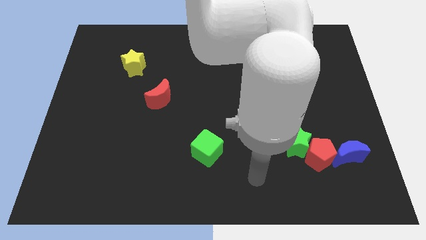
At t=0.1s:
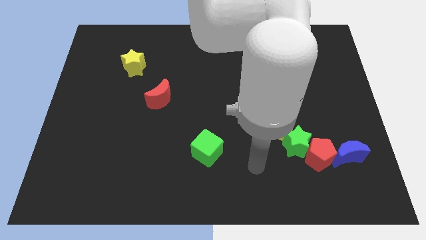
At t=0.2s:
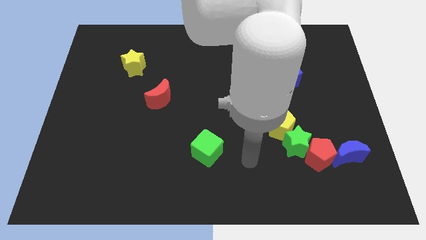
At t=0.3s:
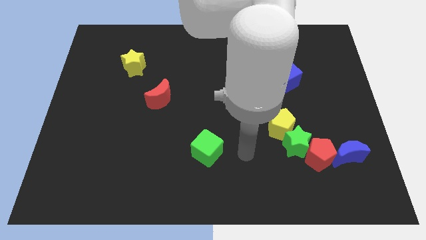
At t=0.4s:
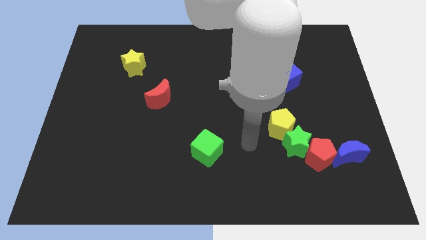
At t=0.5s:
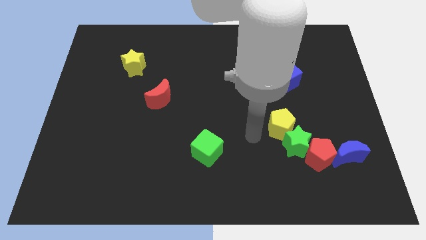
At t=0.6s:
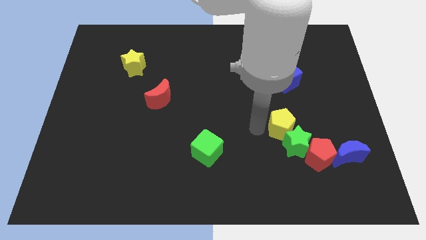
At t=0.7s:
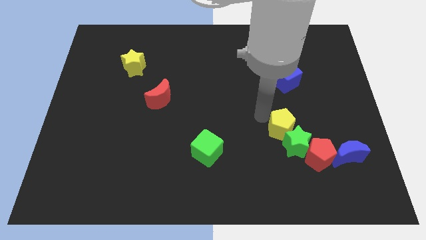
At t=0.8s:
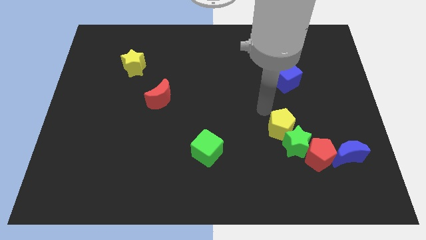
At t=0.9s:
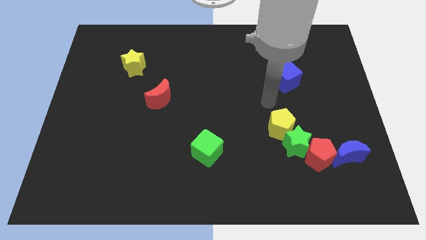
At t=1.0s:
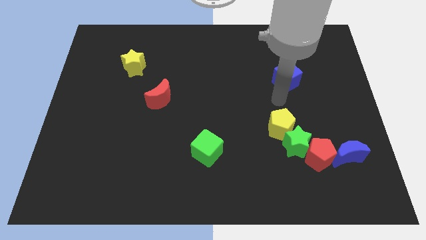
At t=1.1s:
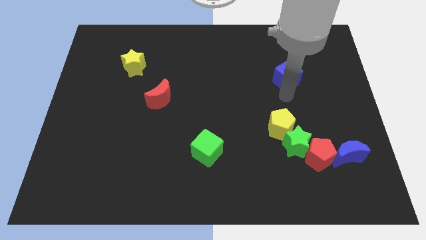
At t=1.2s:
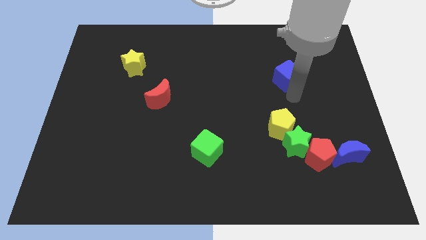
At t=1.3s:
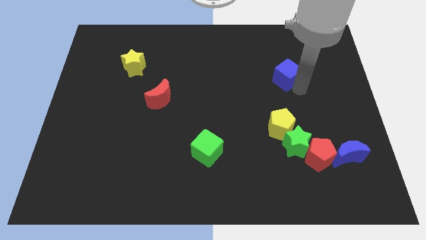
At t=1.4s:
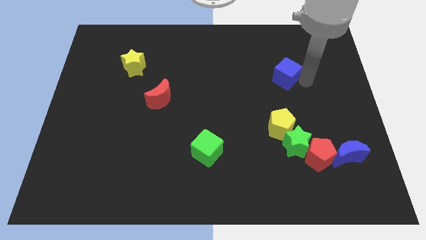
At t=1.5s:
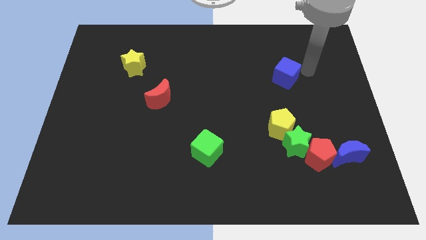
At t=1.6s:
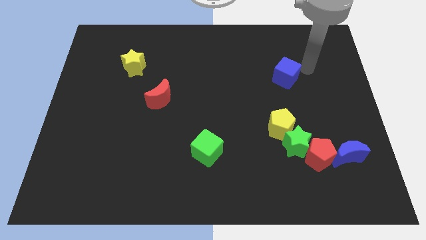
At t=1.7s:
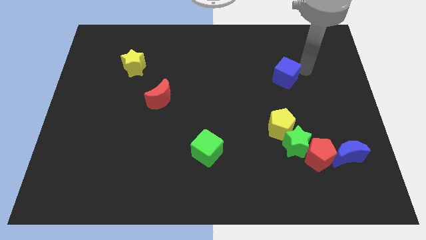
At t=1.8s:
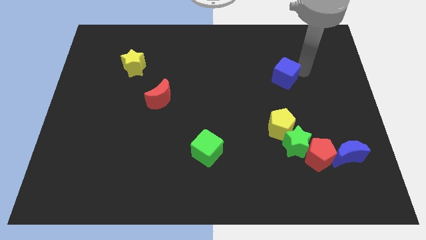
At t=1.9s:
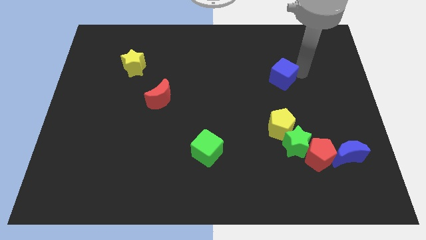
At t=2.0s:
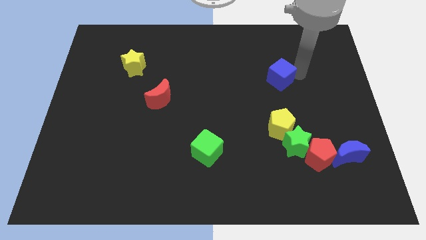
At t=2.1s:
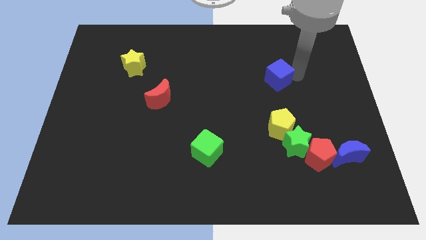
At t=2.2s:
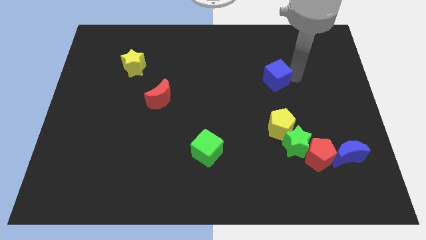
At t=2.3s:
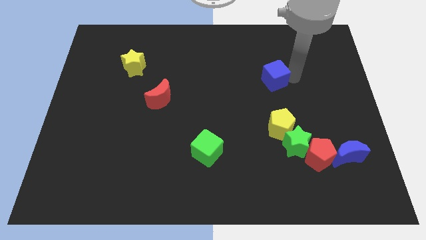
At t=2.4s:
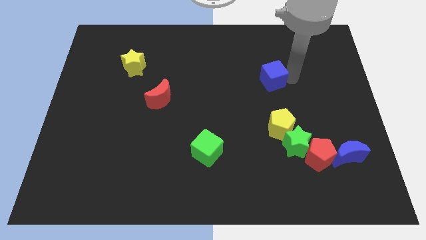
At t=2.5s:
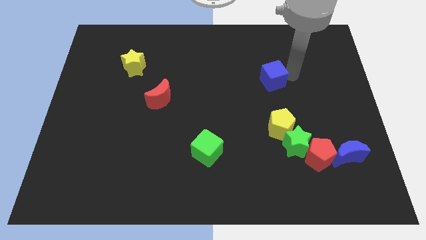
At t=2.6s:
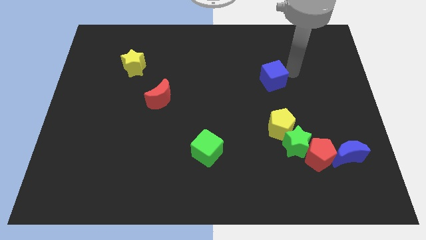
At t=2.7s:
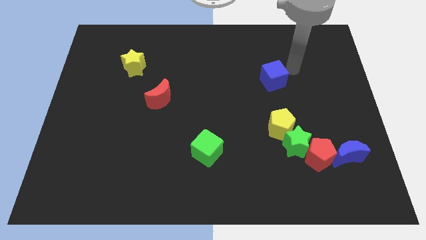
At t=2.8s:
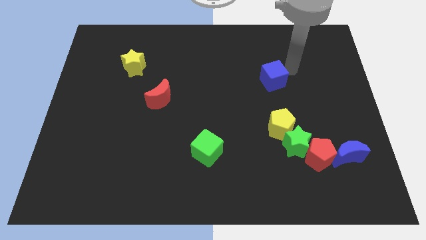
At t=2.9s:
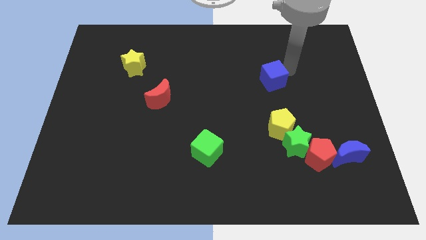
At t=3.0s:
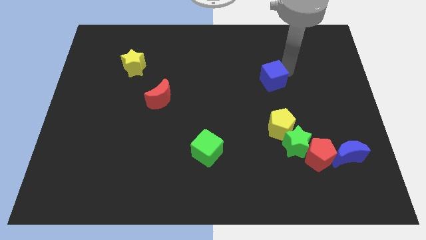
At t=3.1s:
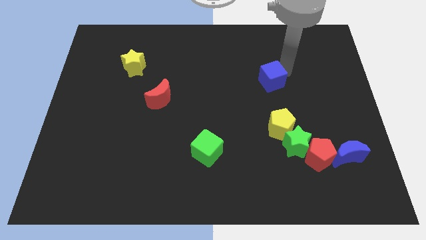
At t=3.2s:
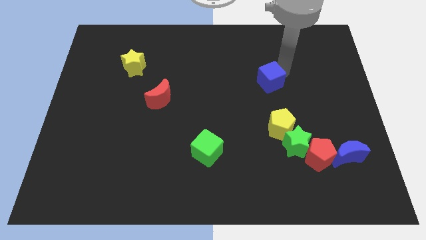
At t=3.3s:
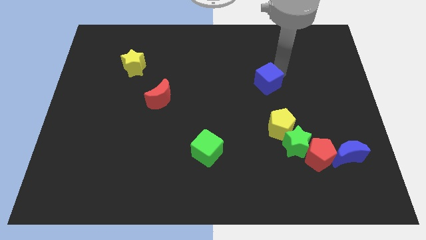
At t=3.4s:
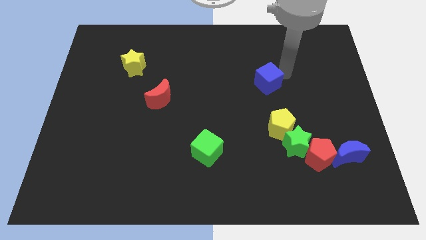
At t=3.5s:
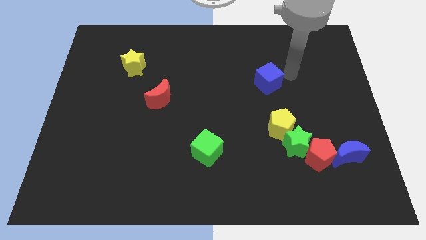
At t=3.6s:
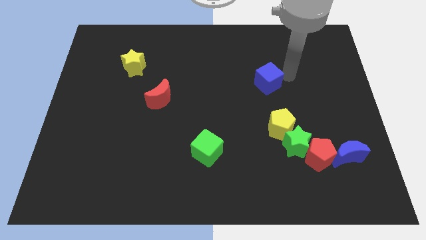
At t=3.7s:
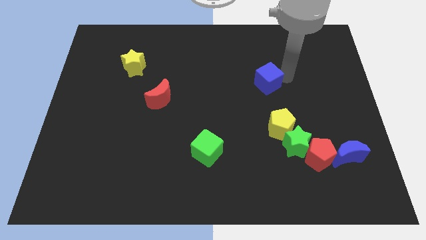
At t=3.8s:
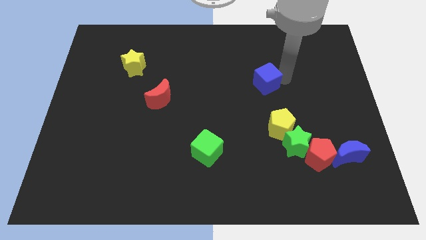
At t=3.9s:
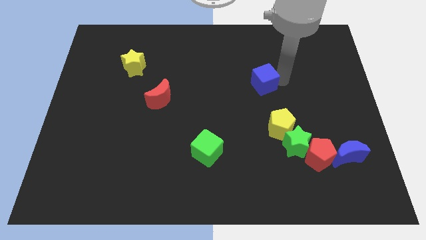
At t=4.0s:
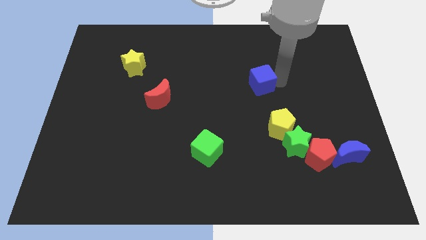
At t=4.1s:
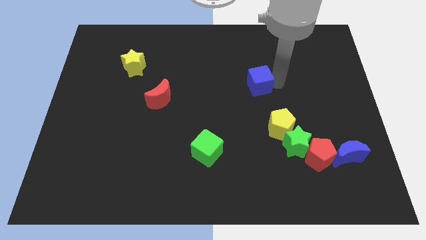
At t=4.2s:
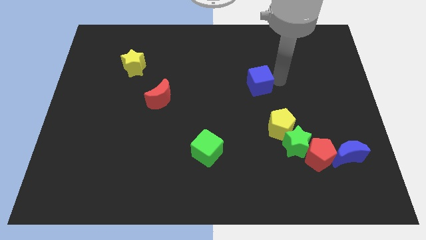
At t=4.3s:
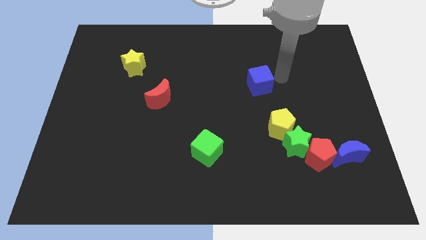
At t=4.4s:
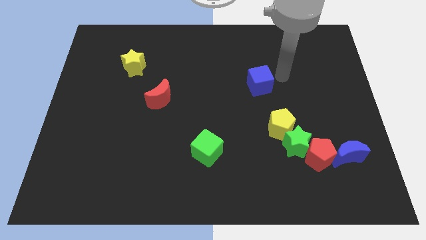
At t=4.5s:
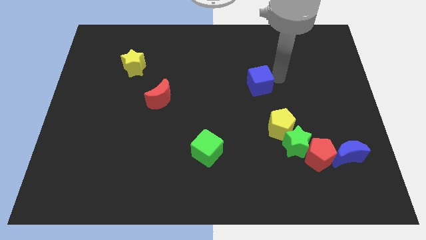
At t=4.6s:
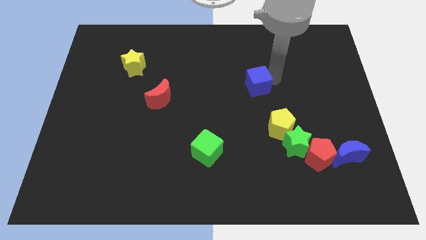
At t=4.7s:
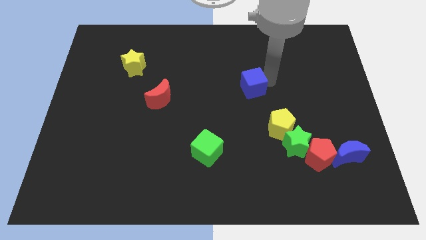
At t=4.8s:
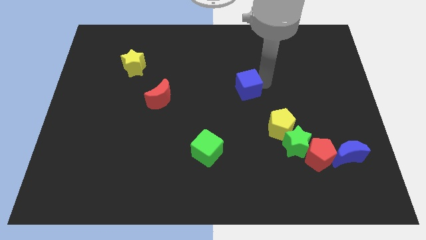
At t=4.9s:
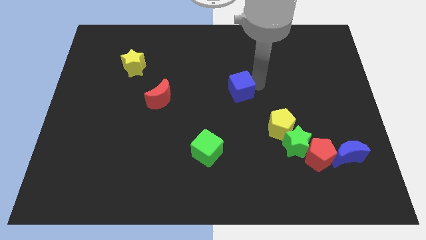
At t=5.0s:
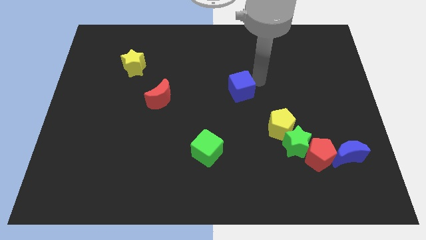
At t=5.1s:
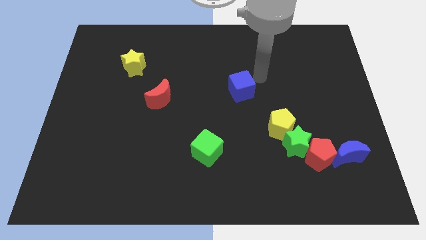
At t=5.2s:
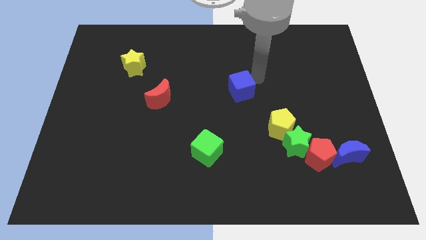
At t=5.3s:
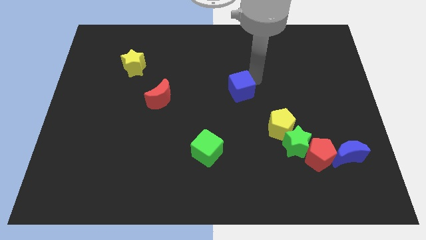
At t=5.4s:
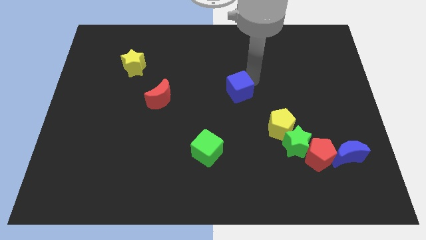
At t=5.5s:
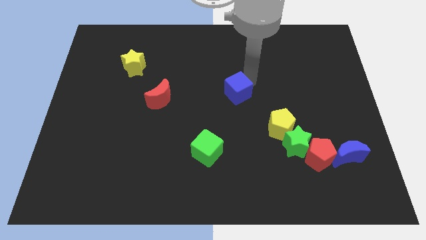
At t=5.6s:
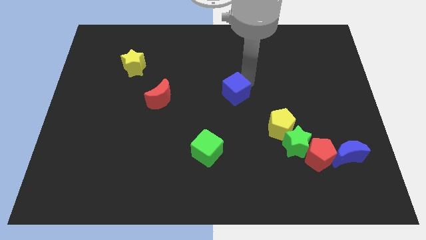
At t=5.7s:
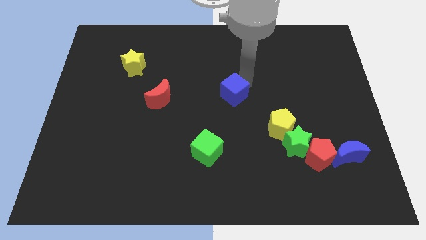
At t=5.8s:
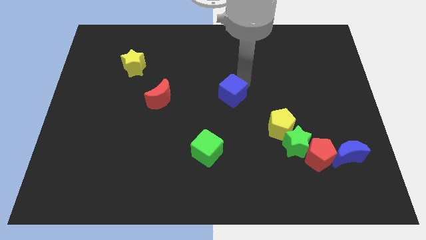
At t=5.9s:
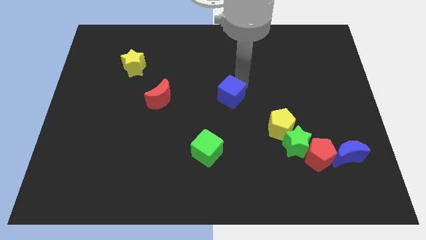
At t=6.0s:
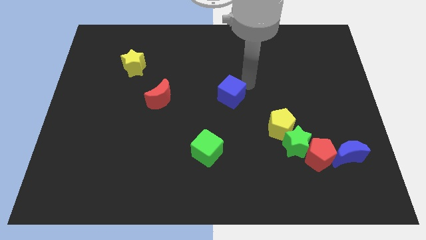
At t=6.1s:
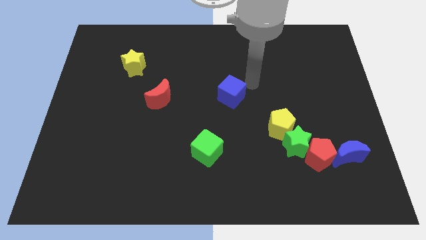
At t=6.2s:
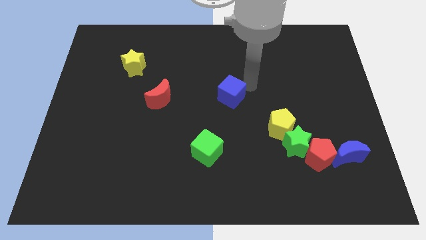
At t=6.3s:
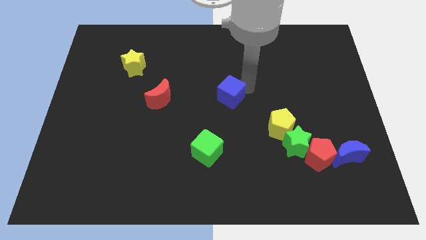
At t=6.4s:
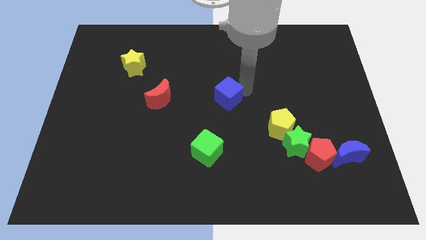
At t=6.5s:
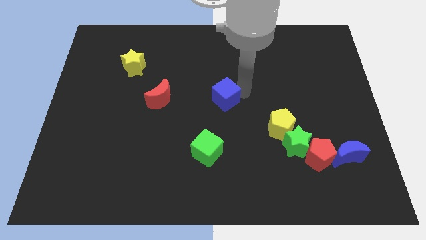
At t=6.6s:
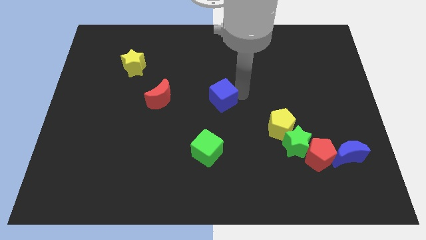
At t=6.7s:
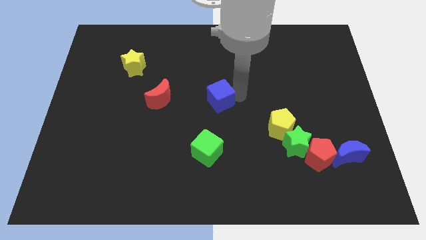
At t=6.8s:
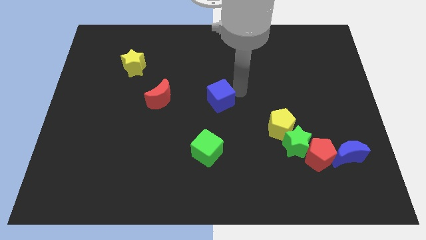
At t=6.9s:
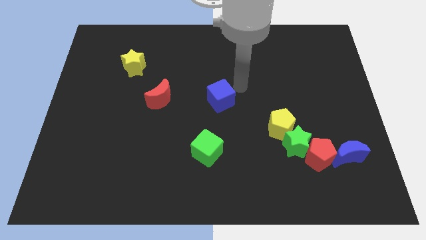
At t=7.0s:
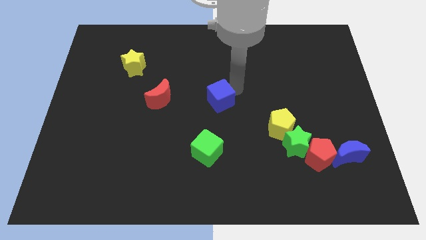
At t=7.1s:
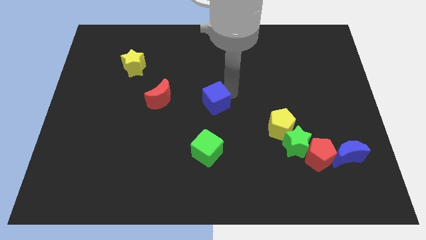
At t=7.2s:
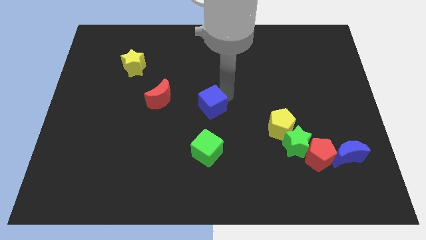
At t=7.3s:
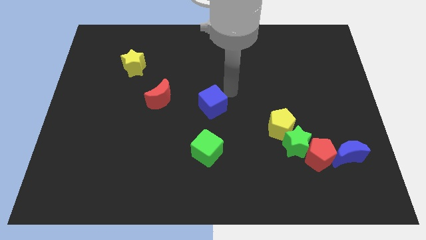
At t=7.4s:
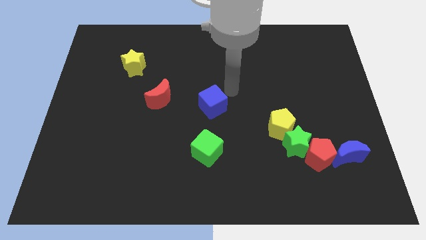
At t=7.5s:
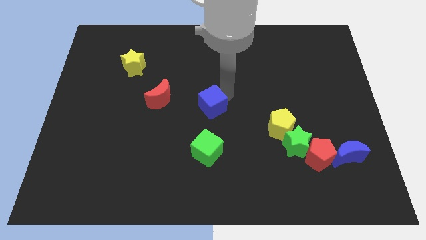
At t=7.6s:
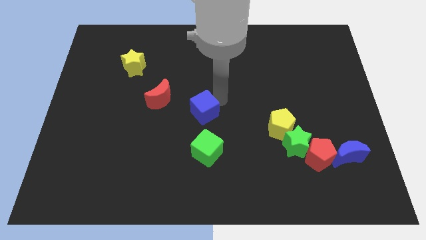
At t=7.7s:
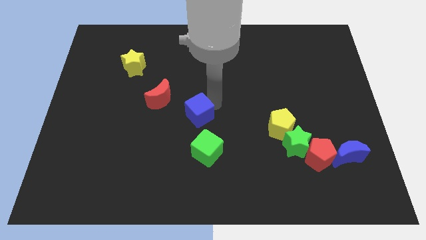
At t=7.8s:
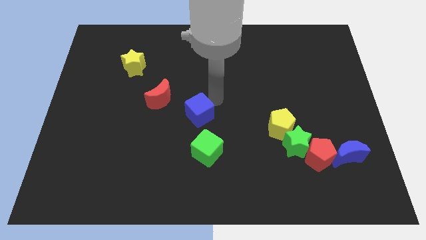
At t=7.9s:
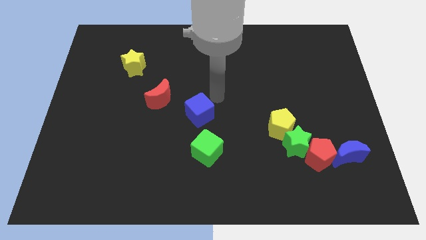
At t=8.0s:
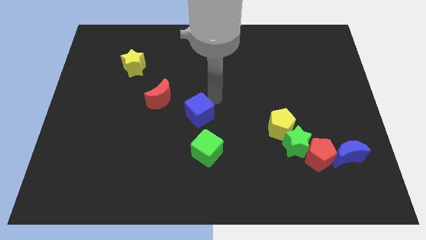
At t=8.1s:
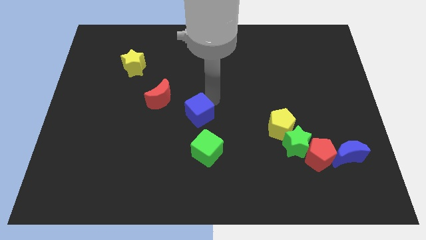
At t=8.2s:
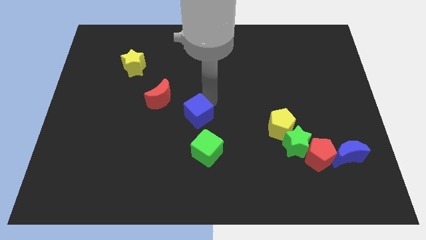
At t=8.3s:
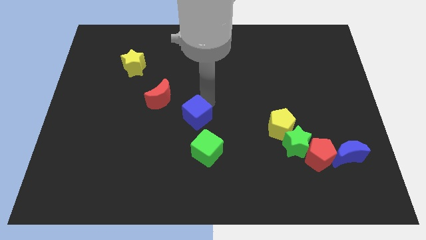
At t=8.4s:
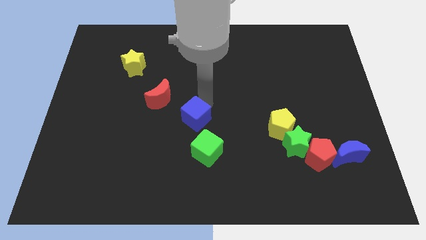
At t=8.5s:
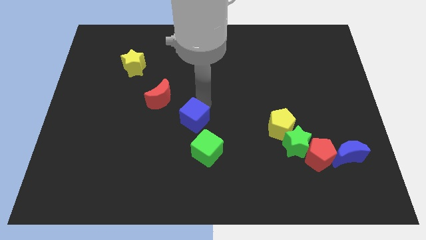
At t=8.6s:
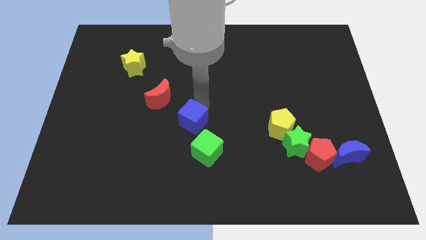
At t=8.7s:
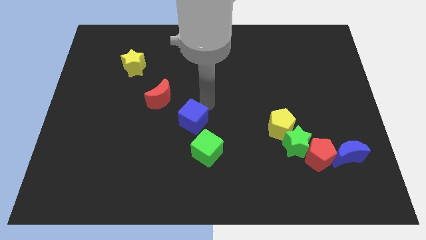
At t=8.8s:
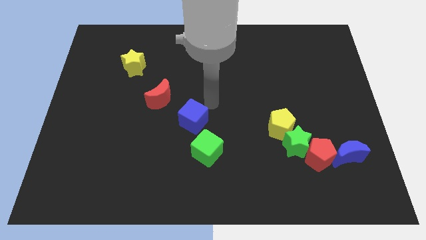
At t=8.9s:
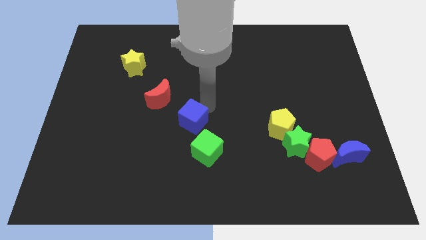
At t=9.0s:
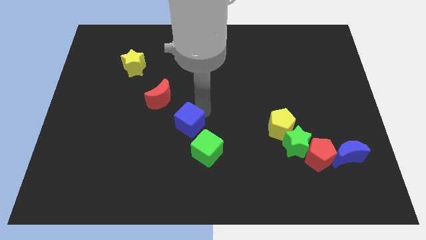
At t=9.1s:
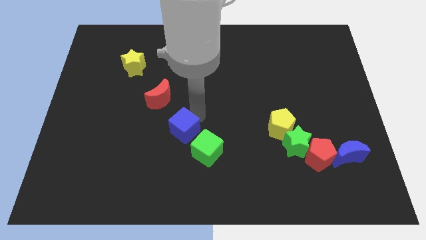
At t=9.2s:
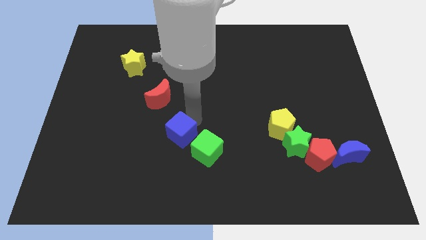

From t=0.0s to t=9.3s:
move the blue cube to the left of the green cube
